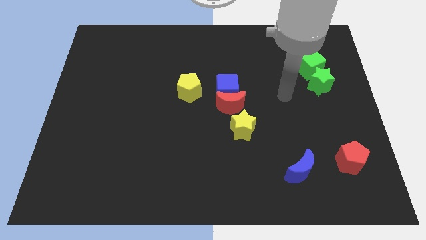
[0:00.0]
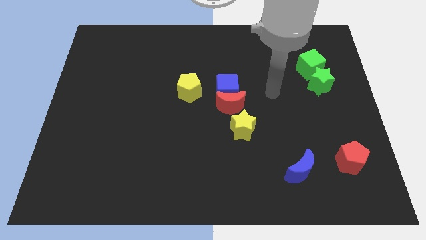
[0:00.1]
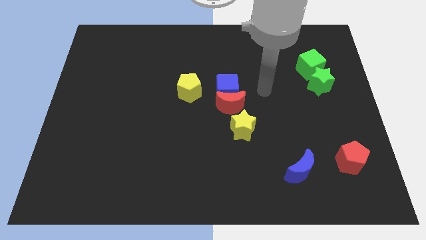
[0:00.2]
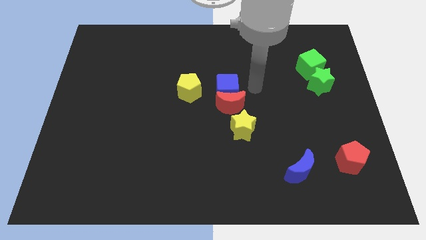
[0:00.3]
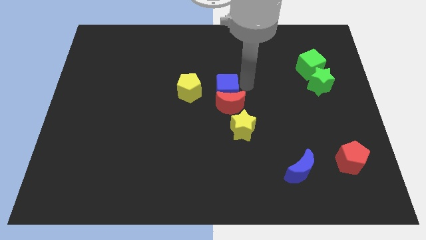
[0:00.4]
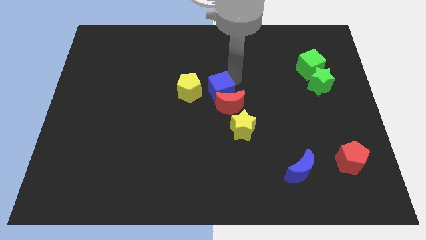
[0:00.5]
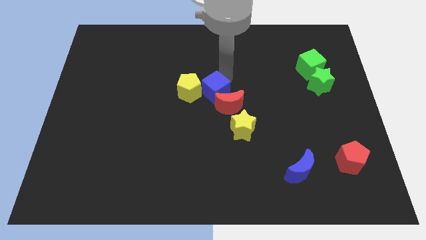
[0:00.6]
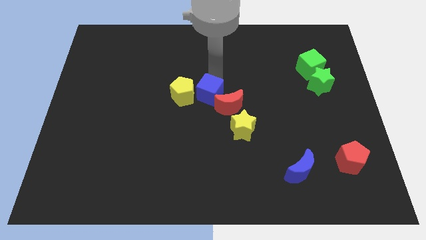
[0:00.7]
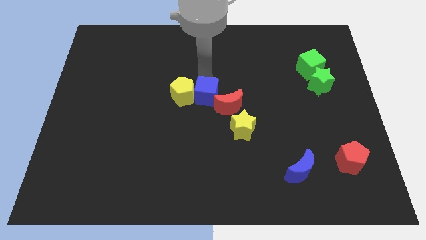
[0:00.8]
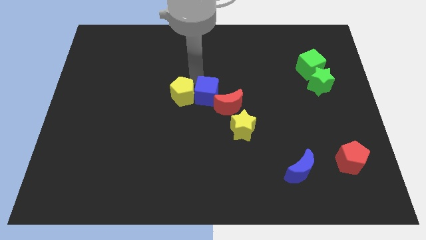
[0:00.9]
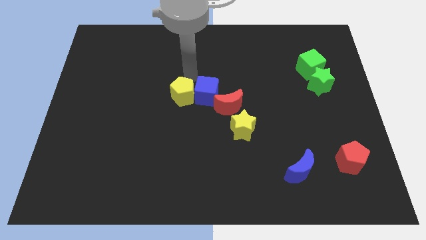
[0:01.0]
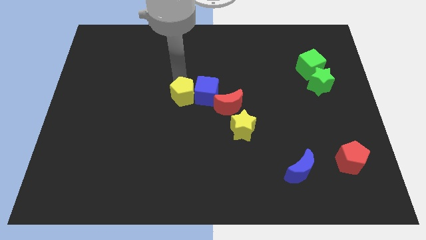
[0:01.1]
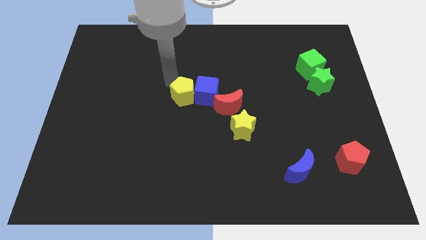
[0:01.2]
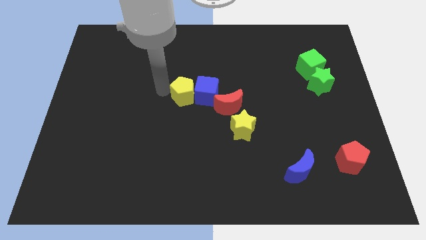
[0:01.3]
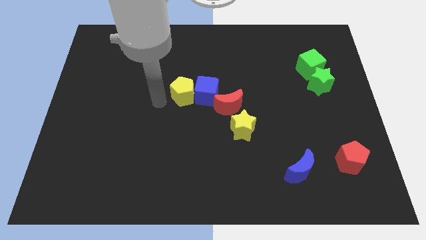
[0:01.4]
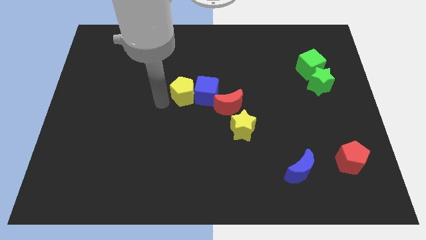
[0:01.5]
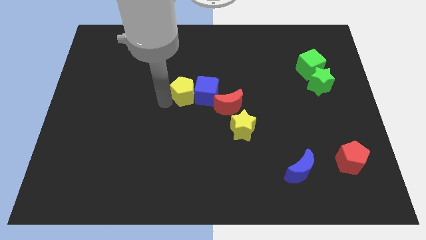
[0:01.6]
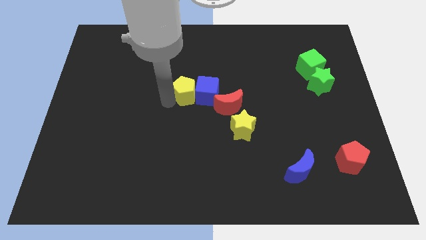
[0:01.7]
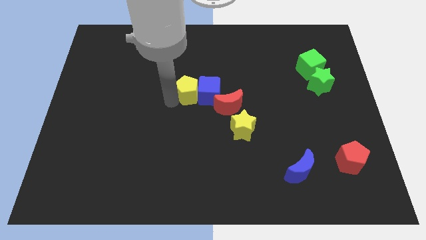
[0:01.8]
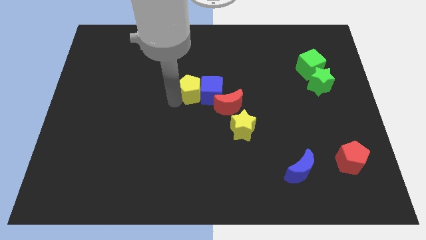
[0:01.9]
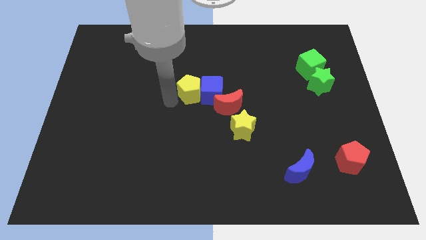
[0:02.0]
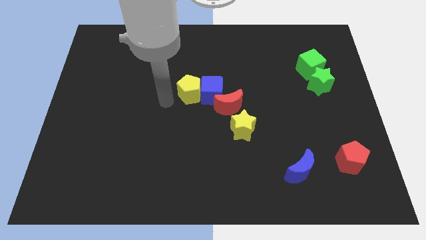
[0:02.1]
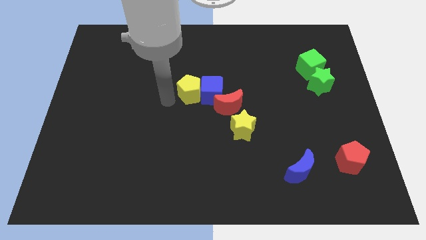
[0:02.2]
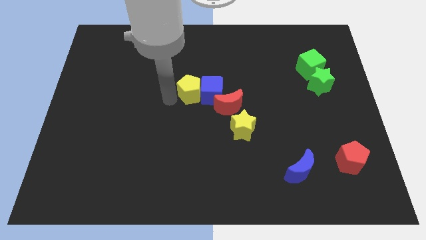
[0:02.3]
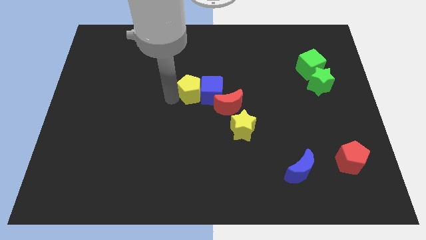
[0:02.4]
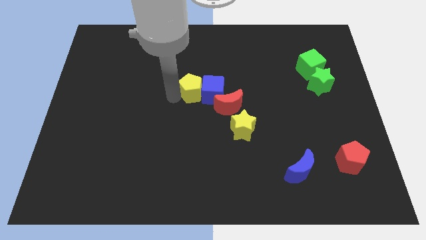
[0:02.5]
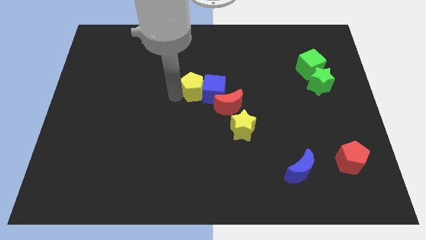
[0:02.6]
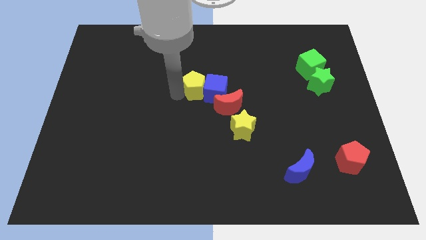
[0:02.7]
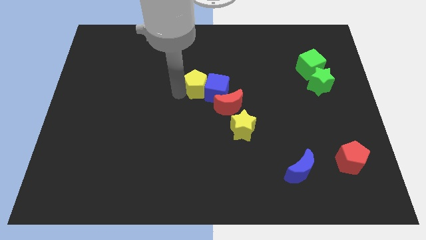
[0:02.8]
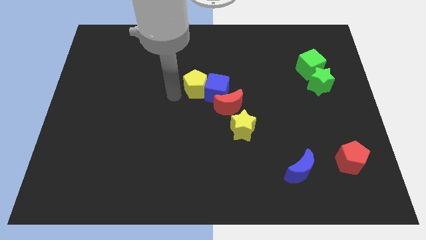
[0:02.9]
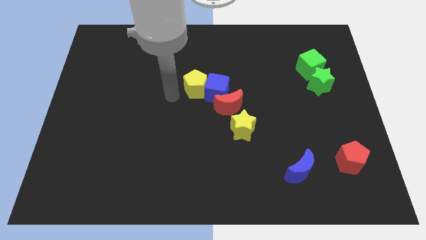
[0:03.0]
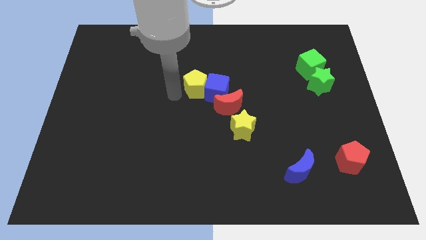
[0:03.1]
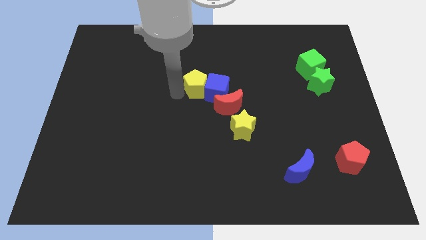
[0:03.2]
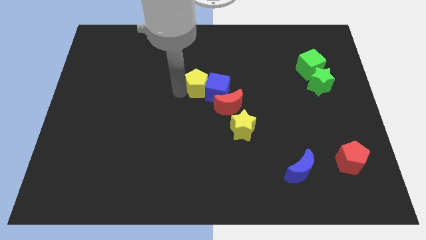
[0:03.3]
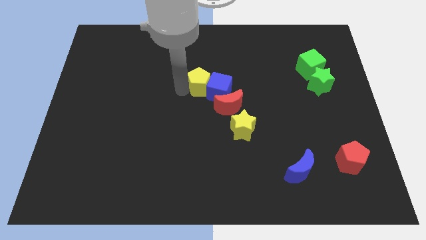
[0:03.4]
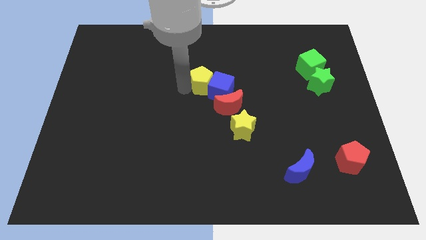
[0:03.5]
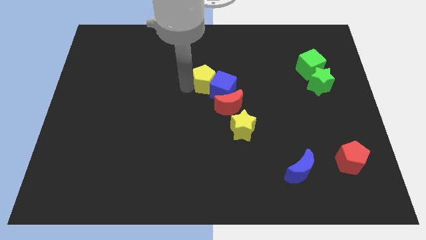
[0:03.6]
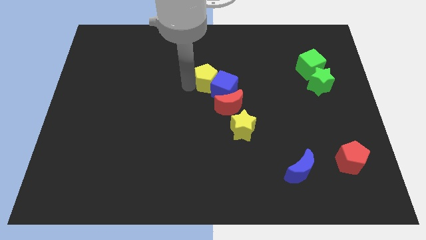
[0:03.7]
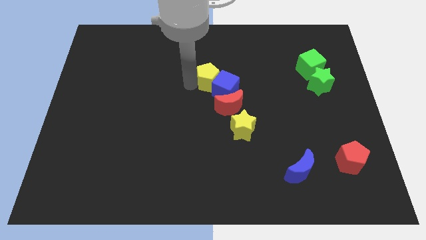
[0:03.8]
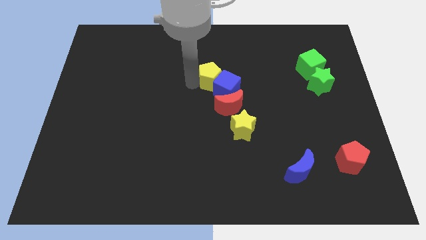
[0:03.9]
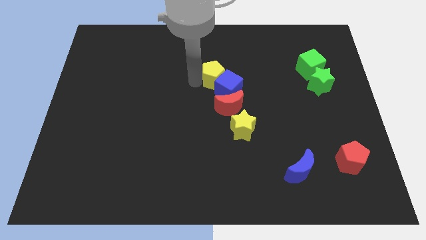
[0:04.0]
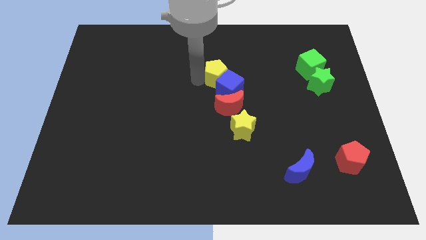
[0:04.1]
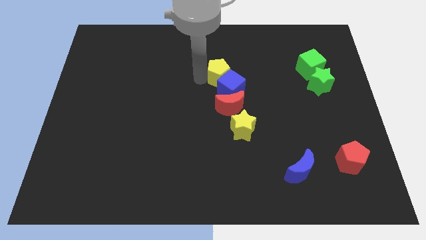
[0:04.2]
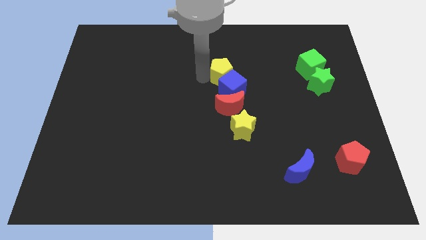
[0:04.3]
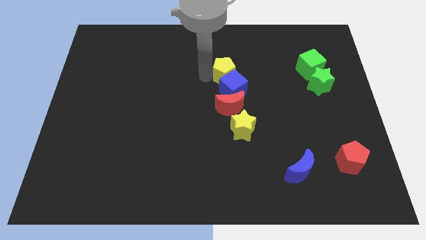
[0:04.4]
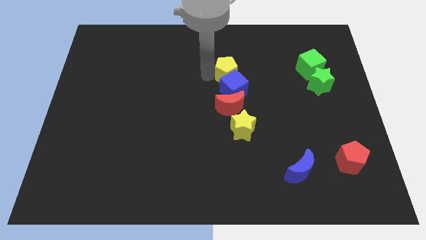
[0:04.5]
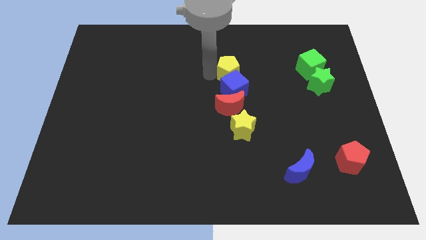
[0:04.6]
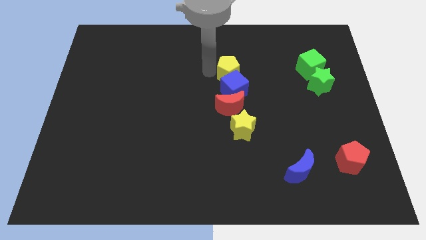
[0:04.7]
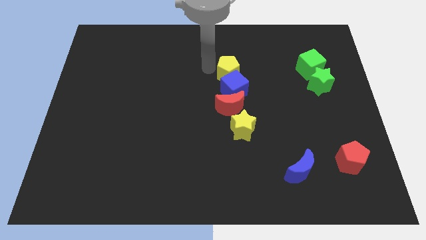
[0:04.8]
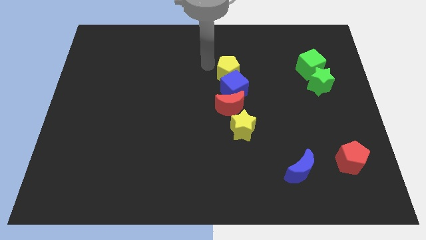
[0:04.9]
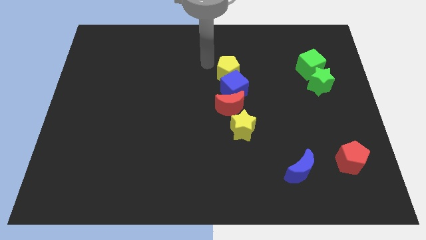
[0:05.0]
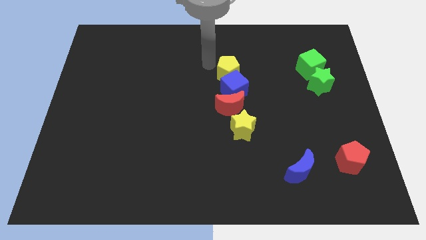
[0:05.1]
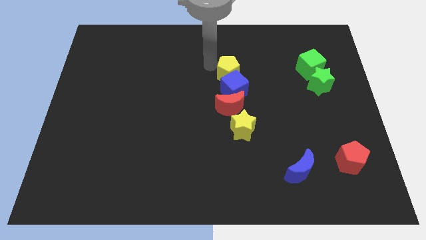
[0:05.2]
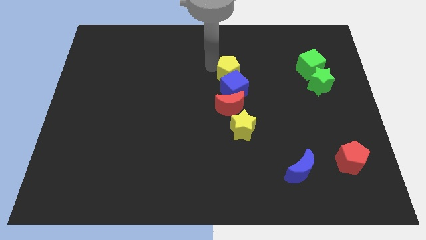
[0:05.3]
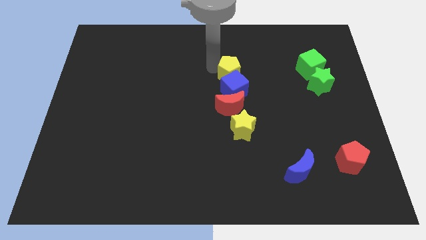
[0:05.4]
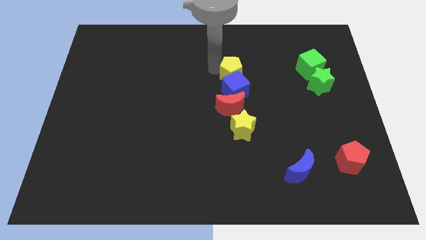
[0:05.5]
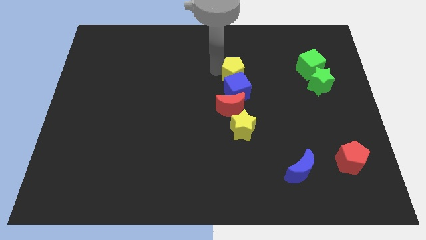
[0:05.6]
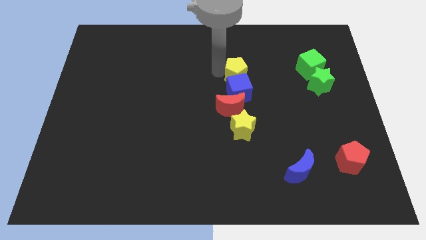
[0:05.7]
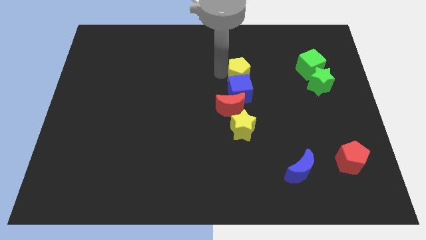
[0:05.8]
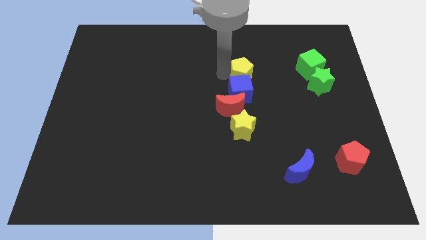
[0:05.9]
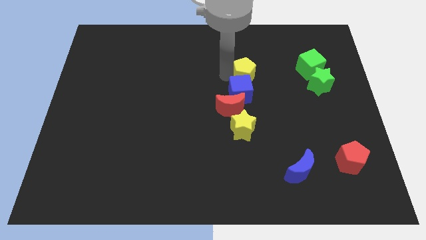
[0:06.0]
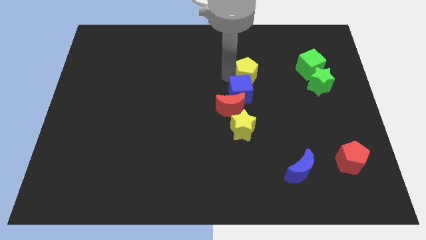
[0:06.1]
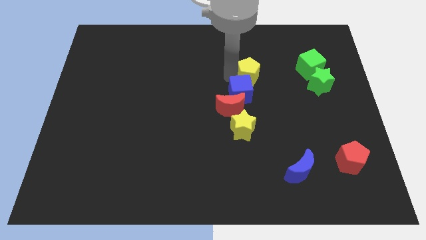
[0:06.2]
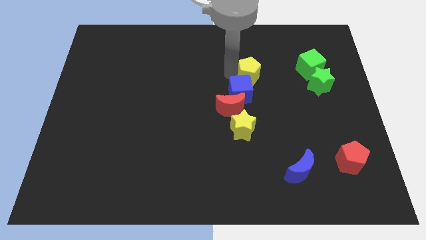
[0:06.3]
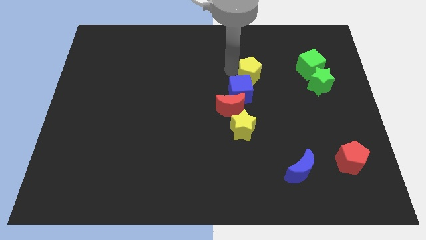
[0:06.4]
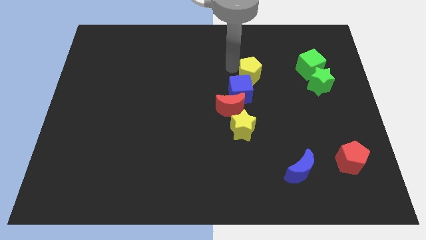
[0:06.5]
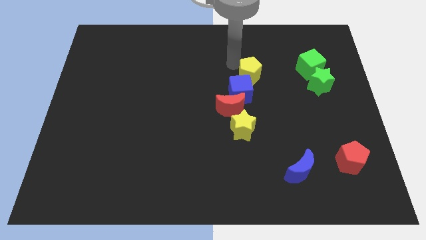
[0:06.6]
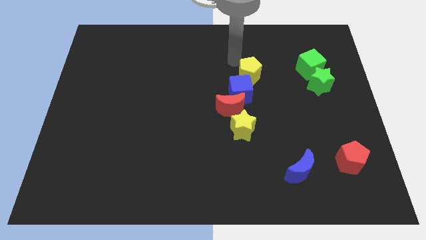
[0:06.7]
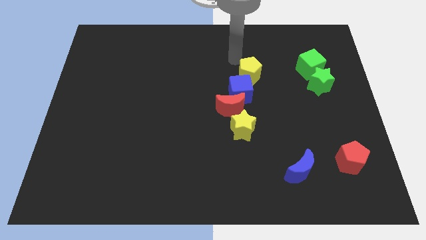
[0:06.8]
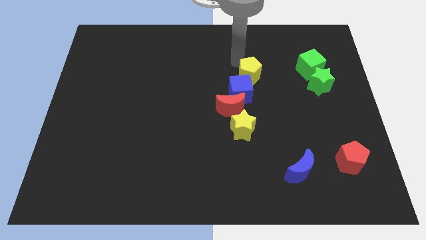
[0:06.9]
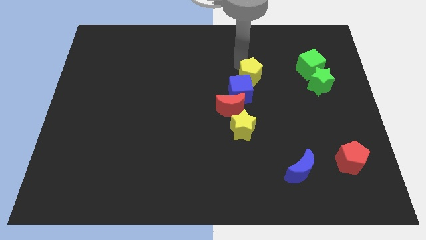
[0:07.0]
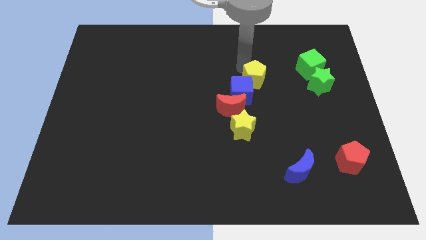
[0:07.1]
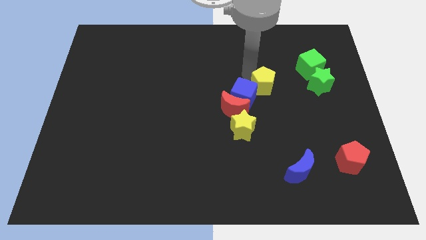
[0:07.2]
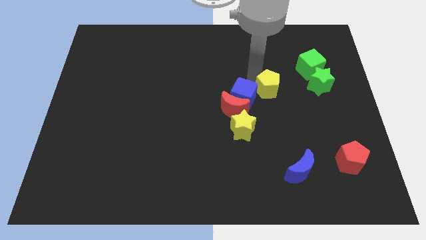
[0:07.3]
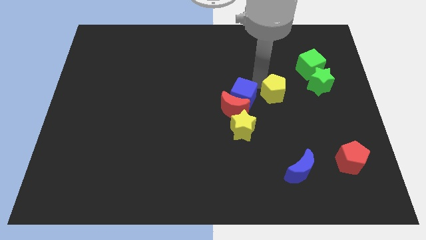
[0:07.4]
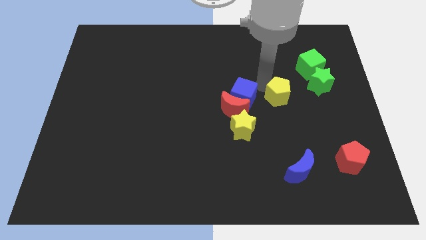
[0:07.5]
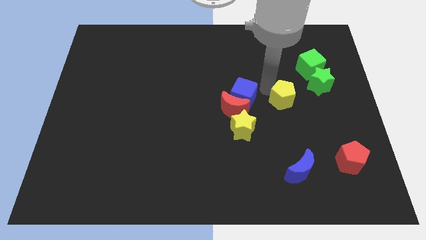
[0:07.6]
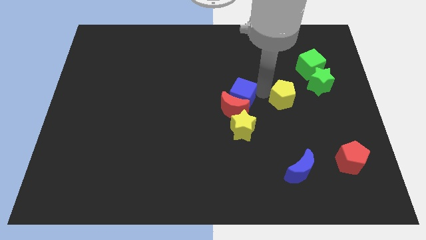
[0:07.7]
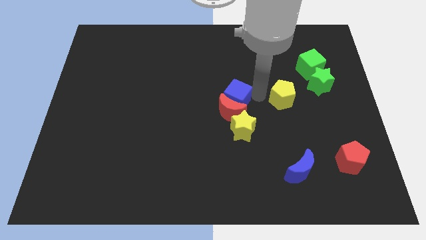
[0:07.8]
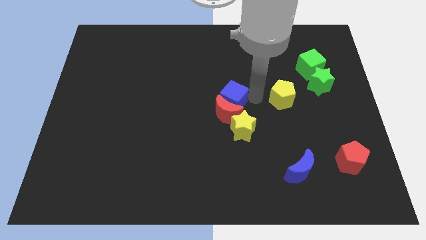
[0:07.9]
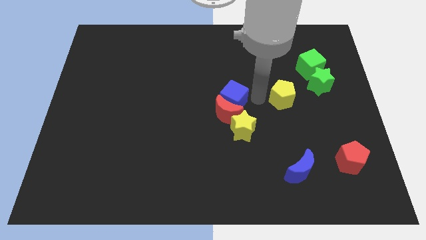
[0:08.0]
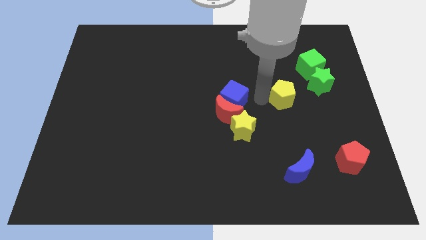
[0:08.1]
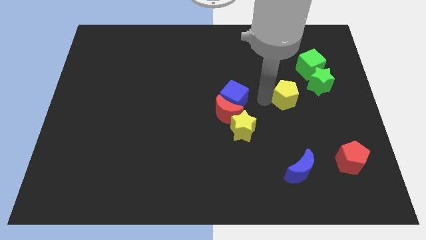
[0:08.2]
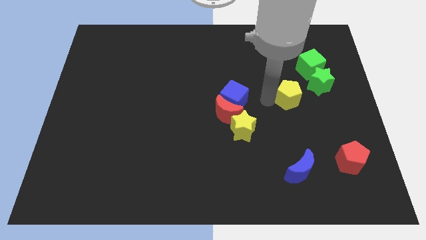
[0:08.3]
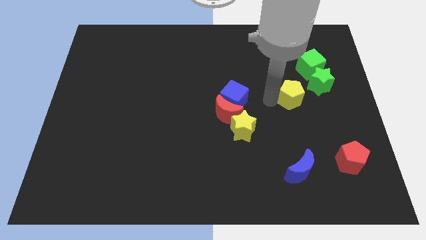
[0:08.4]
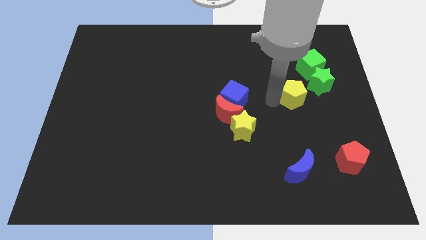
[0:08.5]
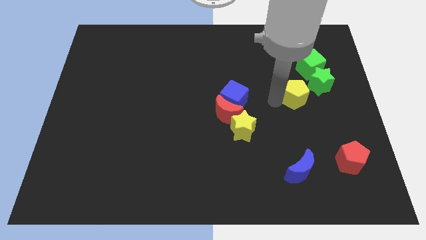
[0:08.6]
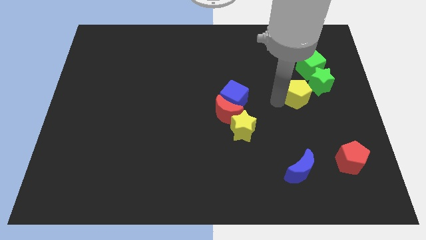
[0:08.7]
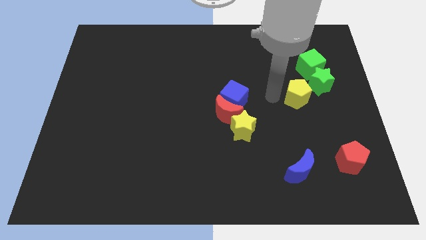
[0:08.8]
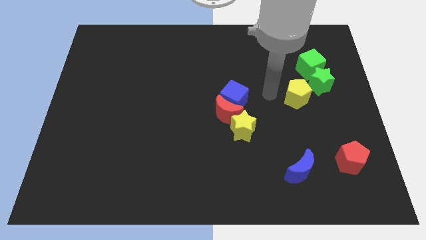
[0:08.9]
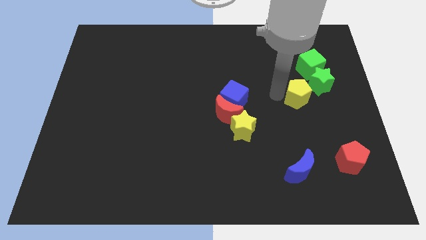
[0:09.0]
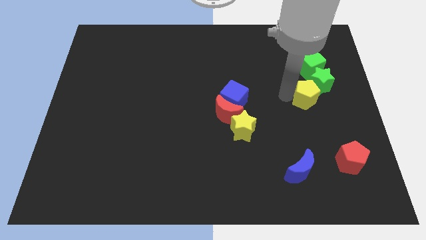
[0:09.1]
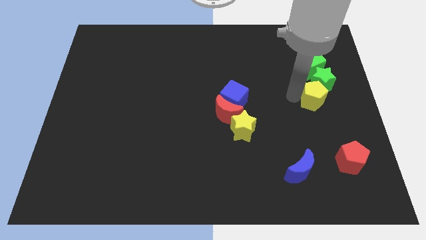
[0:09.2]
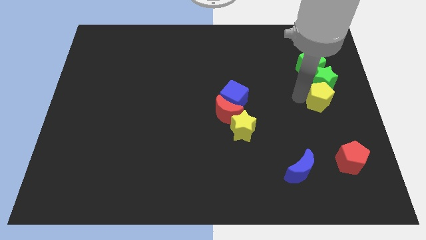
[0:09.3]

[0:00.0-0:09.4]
push the yellow pentagon to the center right
